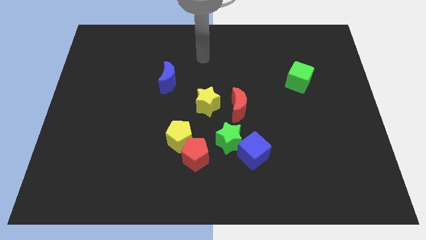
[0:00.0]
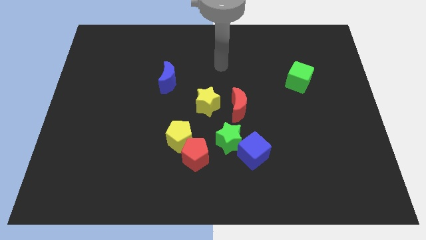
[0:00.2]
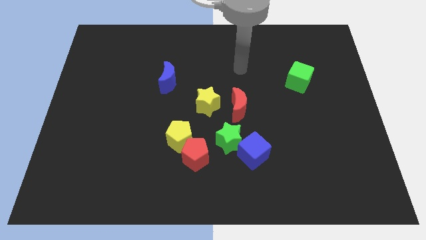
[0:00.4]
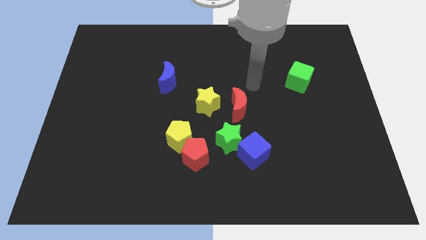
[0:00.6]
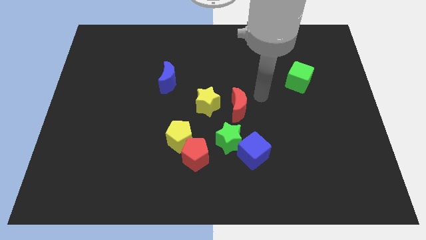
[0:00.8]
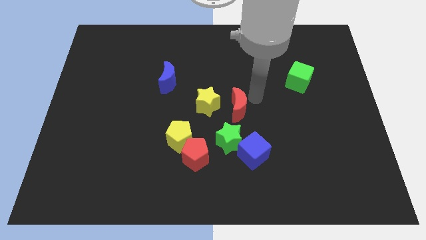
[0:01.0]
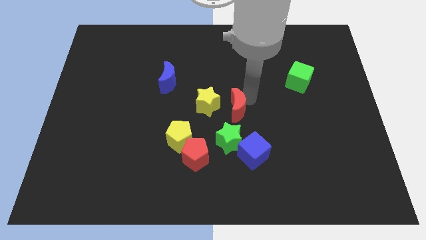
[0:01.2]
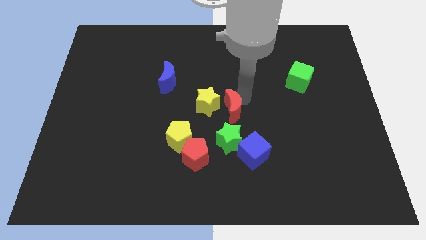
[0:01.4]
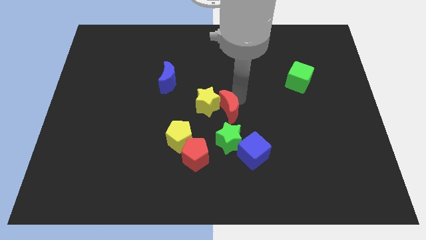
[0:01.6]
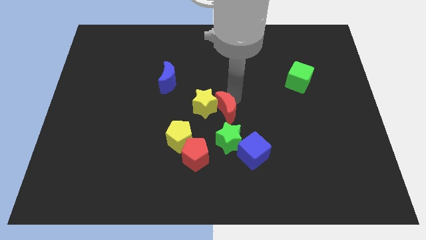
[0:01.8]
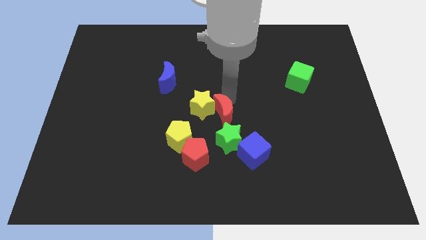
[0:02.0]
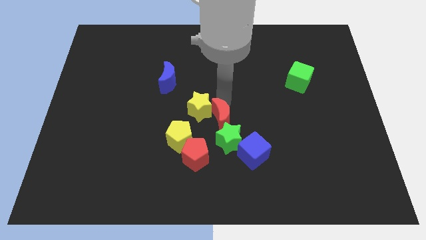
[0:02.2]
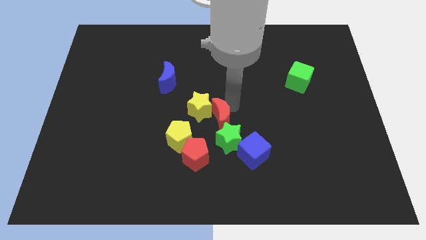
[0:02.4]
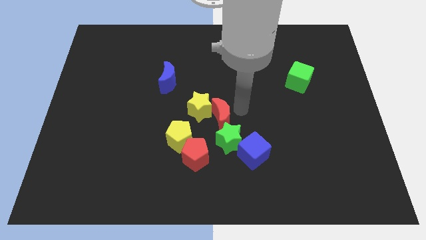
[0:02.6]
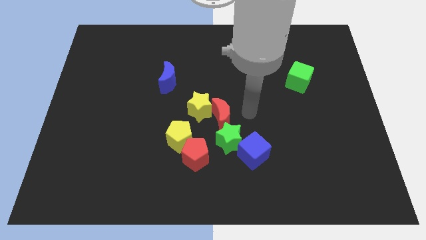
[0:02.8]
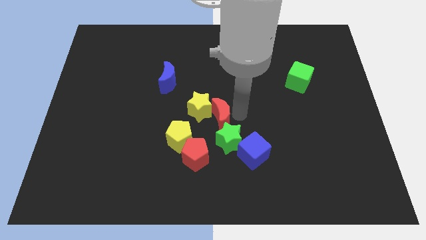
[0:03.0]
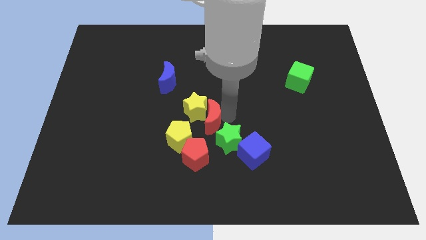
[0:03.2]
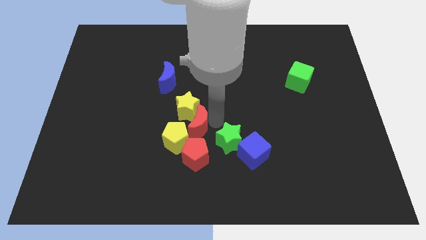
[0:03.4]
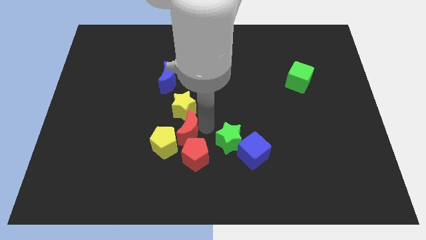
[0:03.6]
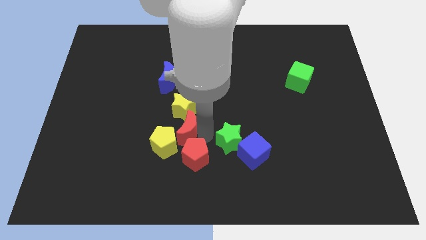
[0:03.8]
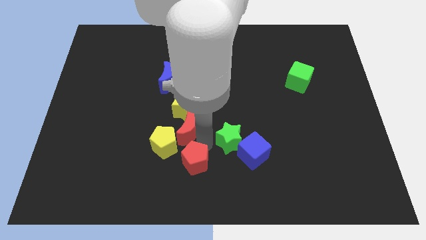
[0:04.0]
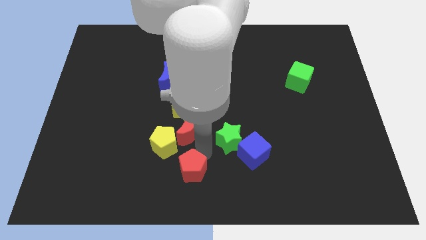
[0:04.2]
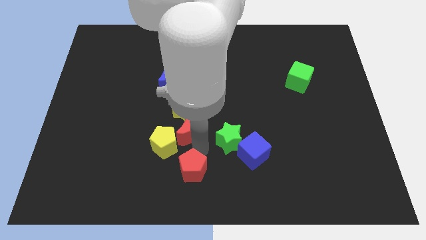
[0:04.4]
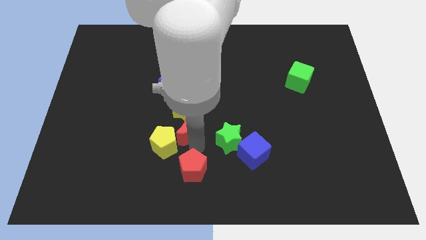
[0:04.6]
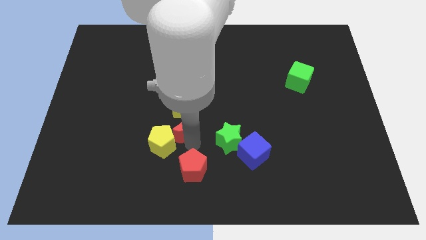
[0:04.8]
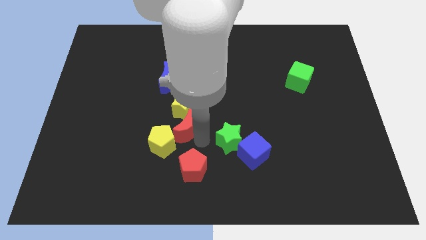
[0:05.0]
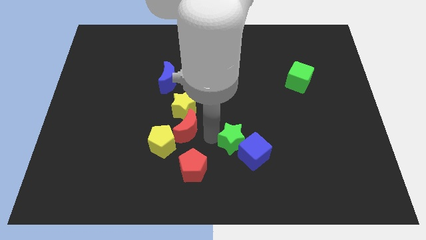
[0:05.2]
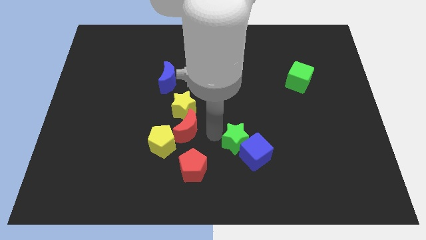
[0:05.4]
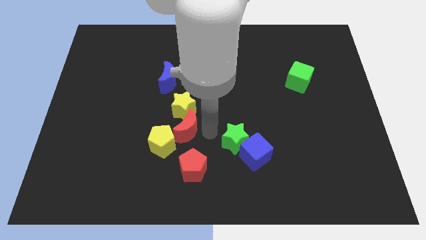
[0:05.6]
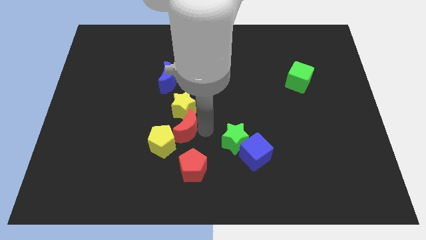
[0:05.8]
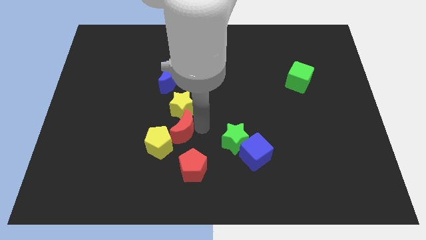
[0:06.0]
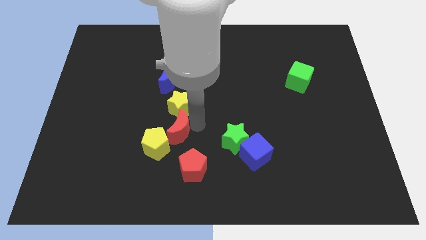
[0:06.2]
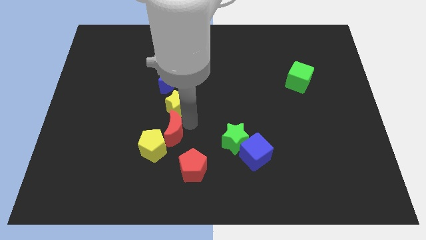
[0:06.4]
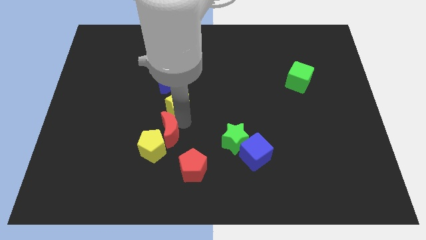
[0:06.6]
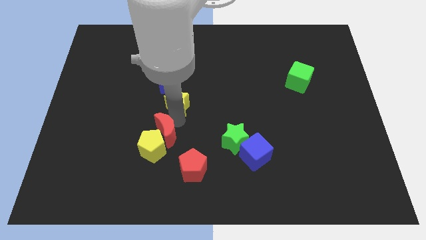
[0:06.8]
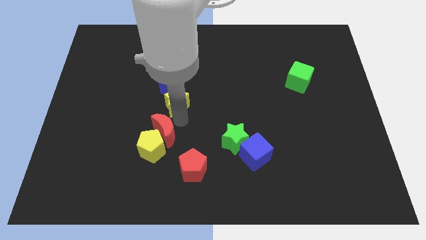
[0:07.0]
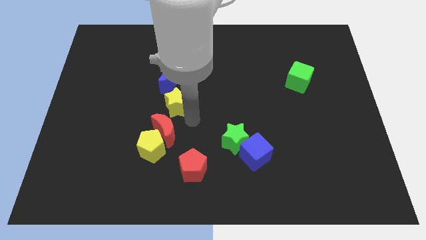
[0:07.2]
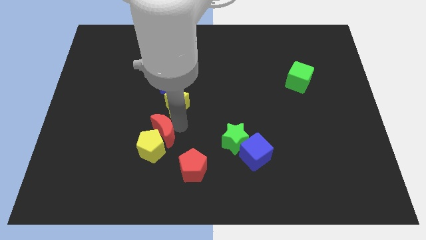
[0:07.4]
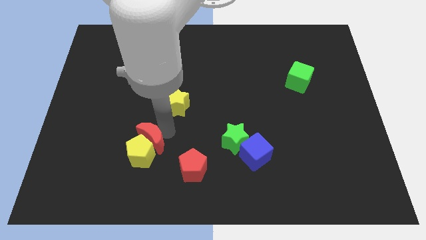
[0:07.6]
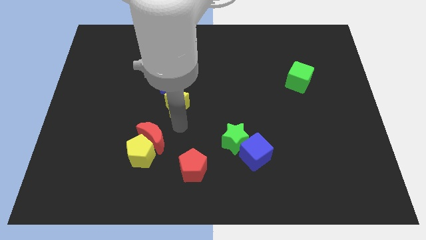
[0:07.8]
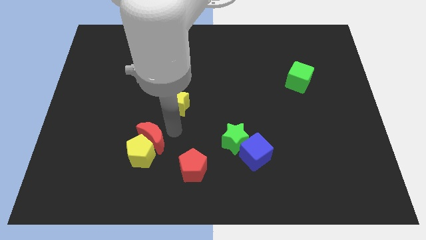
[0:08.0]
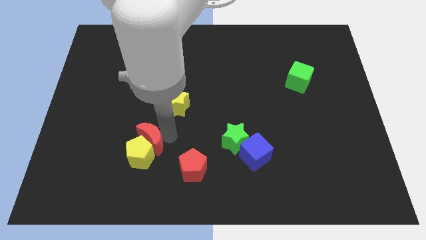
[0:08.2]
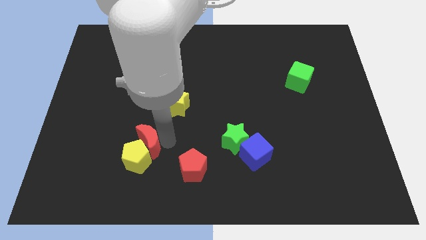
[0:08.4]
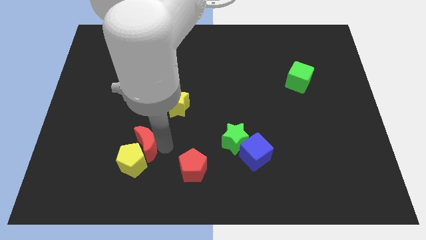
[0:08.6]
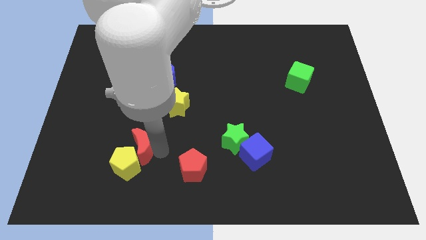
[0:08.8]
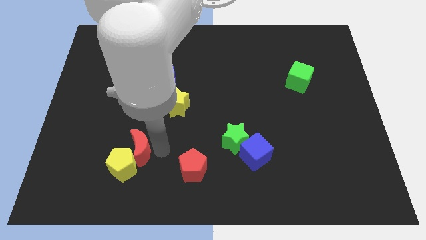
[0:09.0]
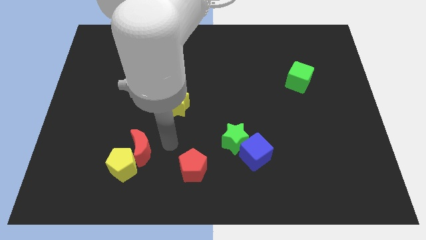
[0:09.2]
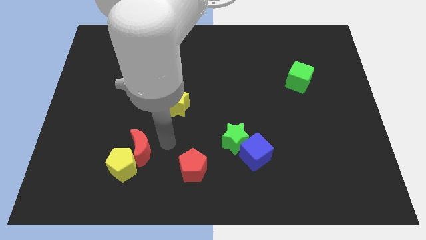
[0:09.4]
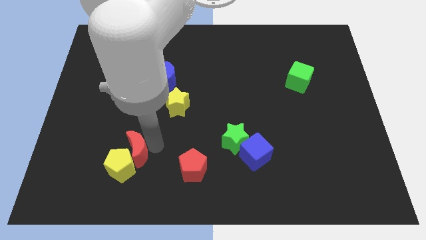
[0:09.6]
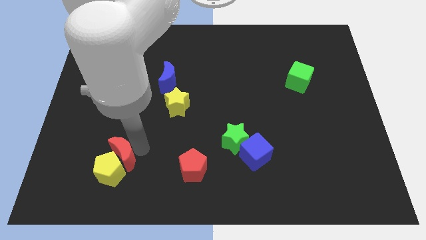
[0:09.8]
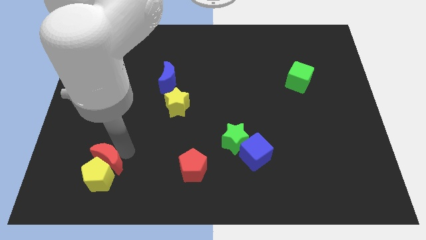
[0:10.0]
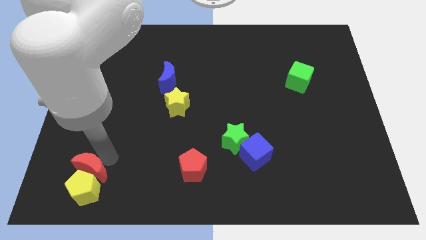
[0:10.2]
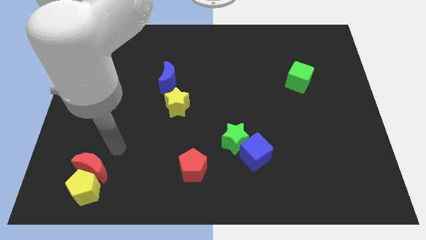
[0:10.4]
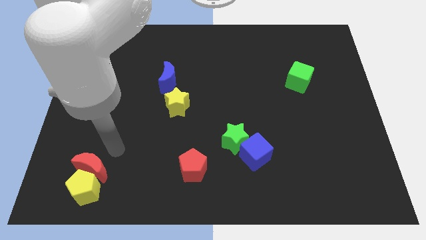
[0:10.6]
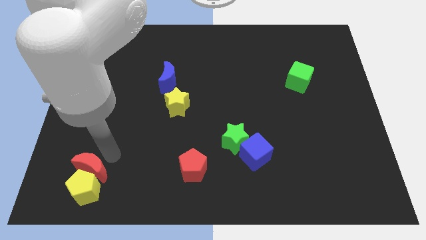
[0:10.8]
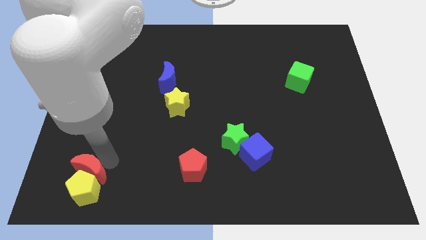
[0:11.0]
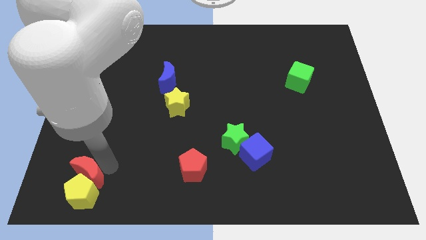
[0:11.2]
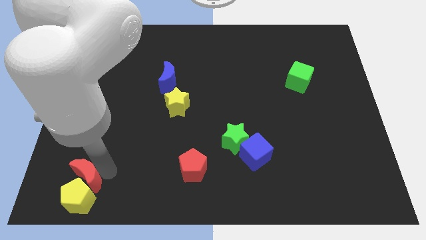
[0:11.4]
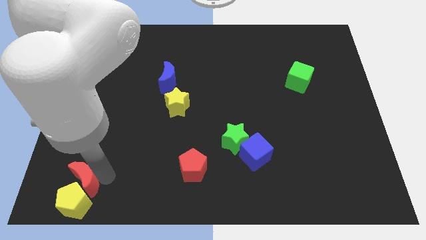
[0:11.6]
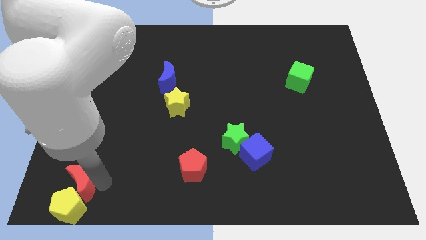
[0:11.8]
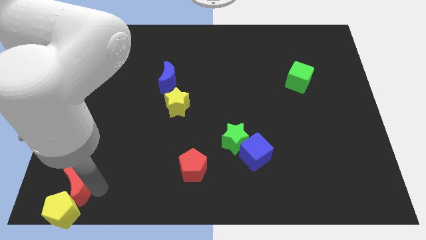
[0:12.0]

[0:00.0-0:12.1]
slide the red moon to the bottom left of the board

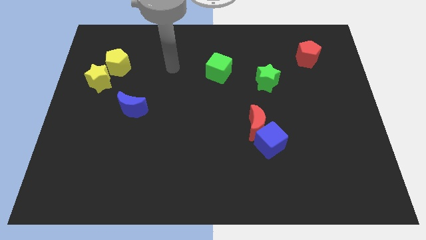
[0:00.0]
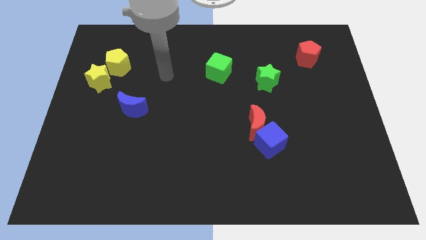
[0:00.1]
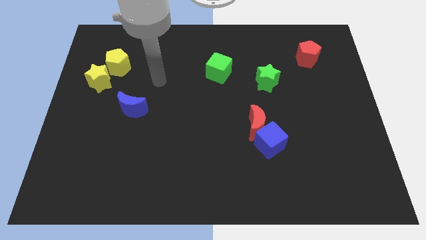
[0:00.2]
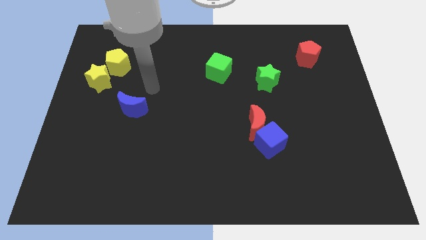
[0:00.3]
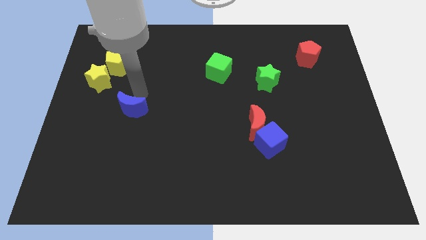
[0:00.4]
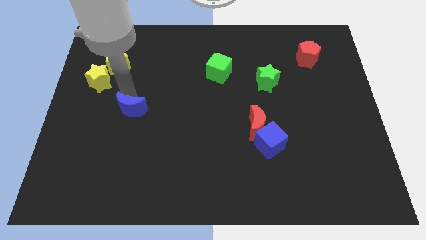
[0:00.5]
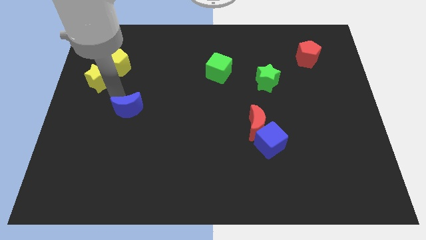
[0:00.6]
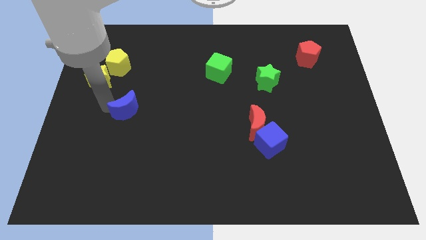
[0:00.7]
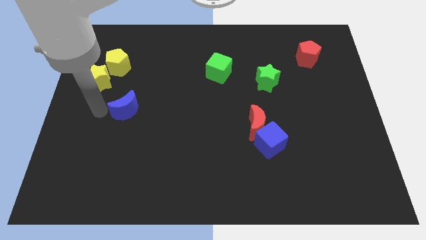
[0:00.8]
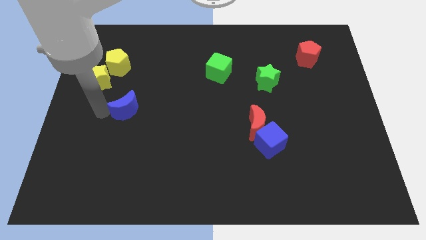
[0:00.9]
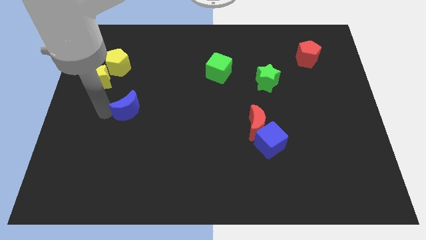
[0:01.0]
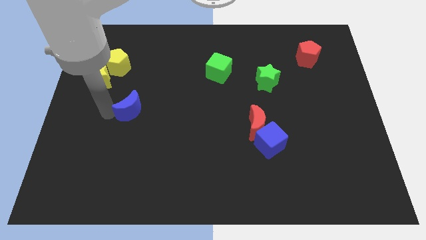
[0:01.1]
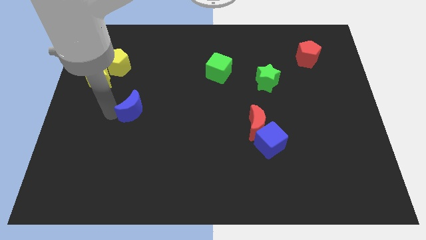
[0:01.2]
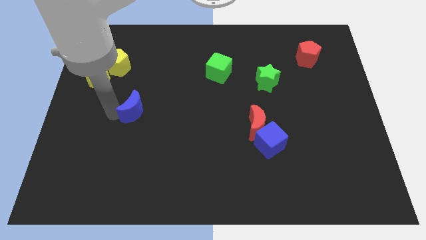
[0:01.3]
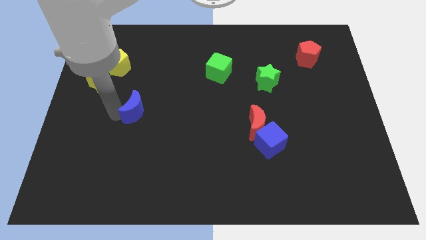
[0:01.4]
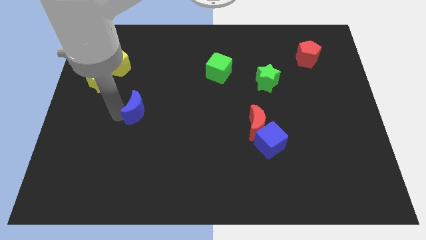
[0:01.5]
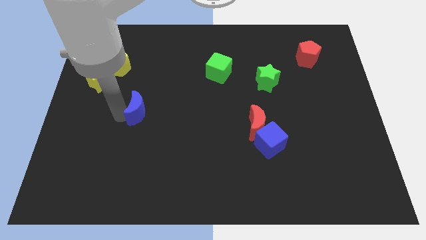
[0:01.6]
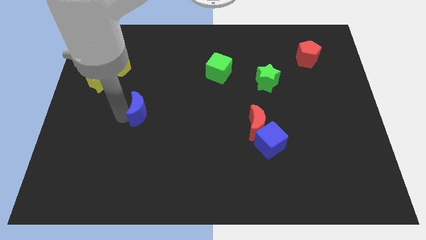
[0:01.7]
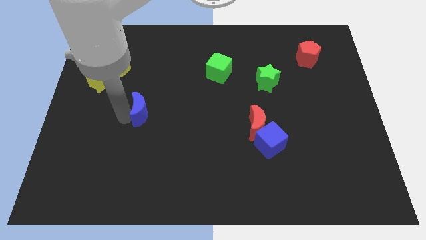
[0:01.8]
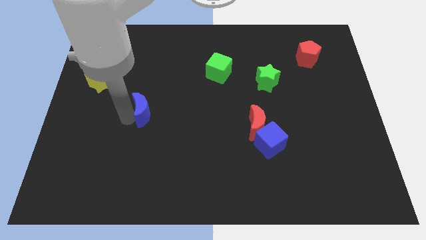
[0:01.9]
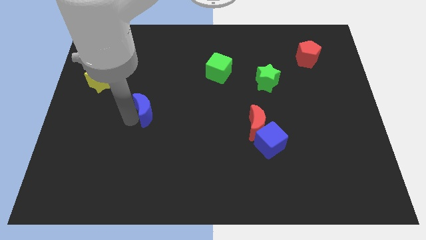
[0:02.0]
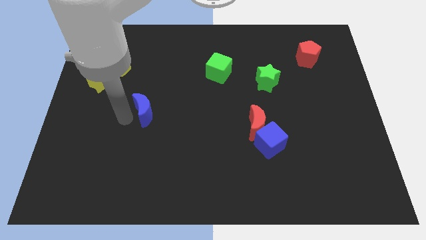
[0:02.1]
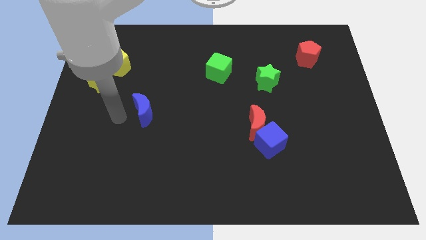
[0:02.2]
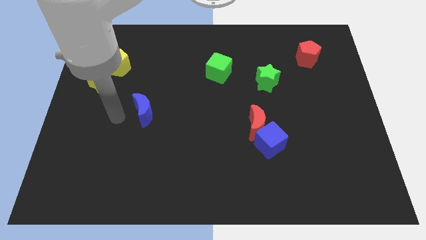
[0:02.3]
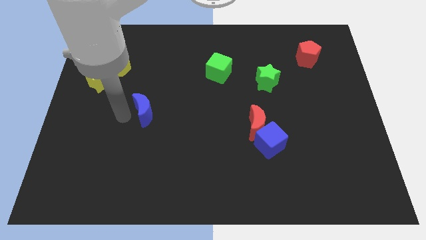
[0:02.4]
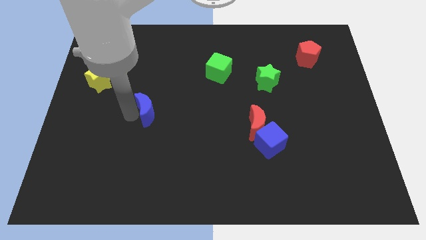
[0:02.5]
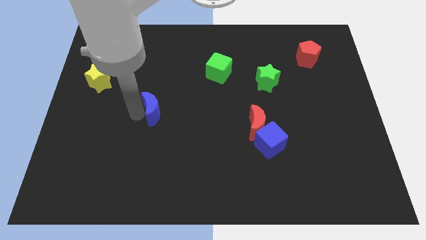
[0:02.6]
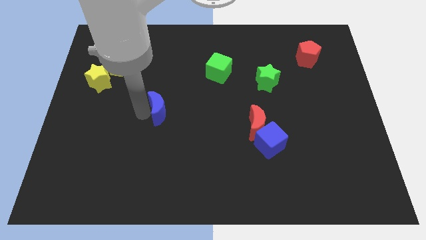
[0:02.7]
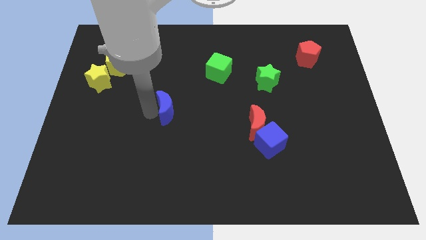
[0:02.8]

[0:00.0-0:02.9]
slide the blue moon to the middle
